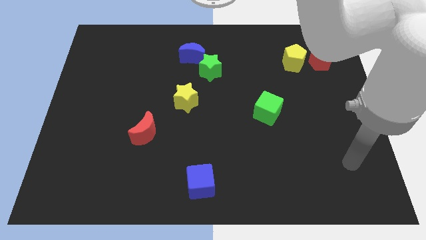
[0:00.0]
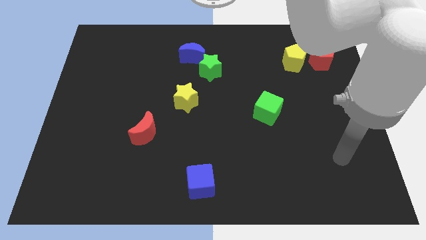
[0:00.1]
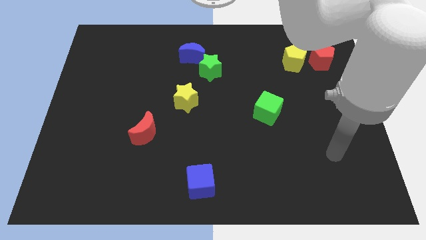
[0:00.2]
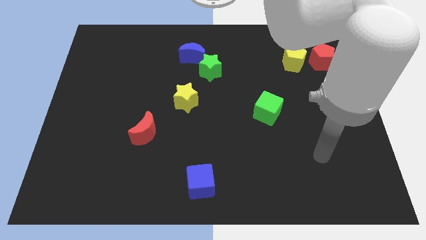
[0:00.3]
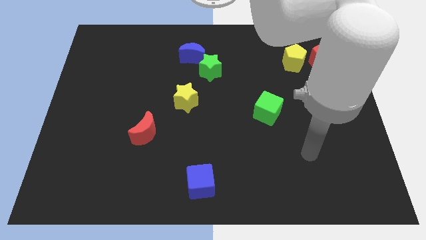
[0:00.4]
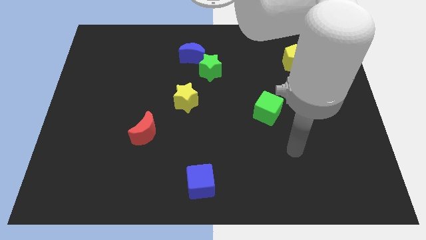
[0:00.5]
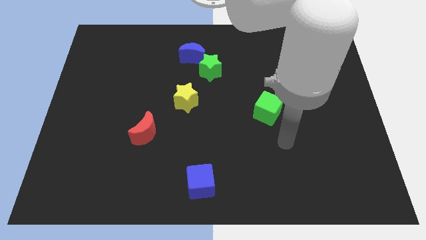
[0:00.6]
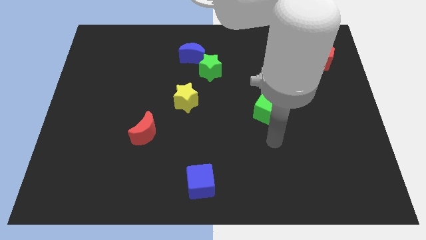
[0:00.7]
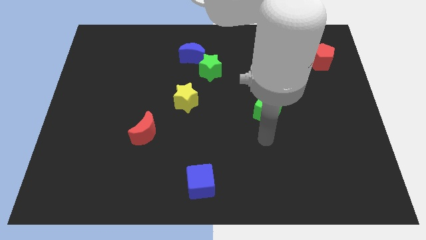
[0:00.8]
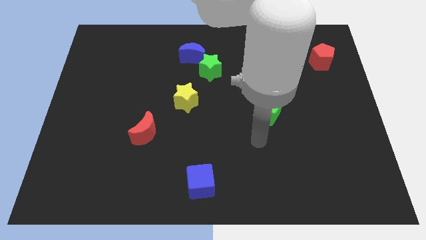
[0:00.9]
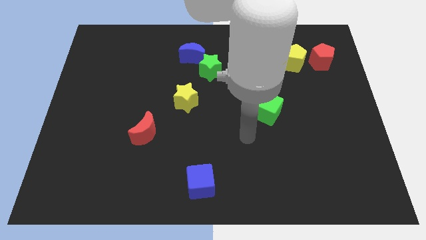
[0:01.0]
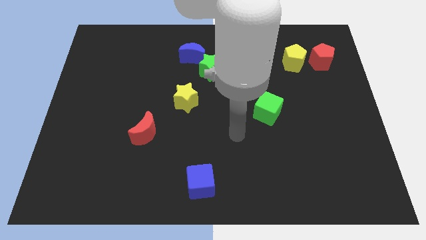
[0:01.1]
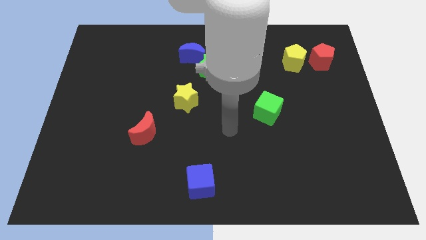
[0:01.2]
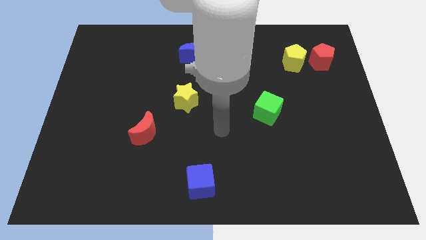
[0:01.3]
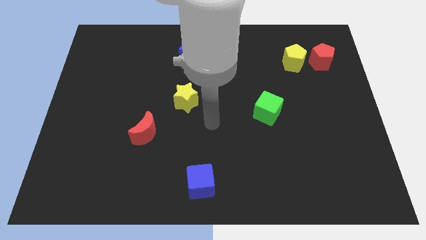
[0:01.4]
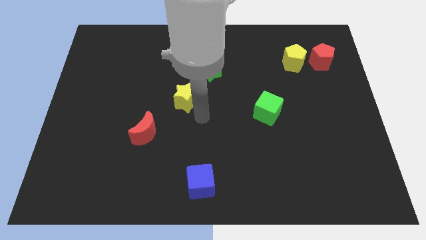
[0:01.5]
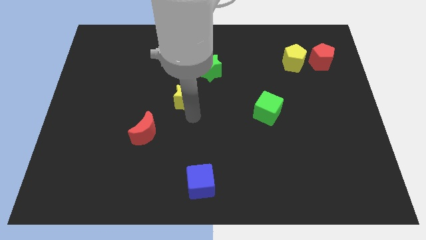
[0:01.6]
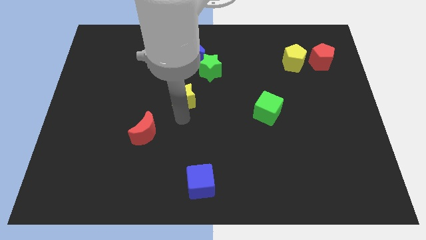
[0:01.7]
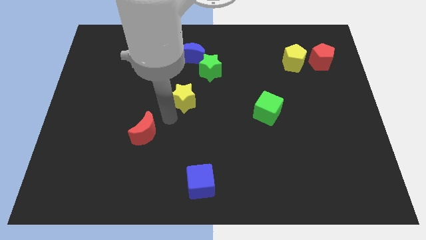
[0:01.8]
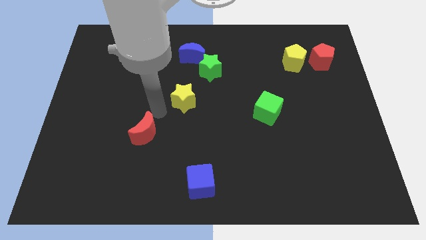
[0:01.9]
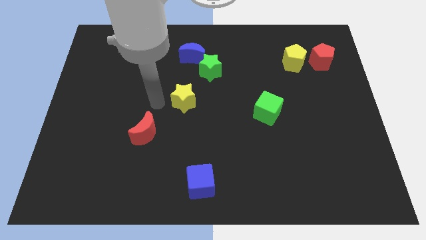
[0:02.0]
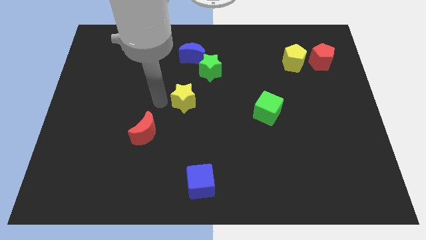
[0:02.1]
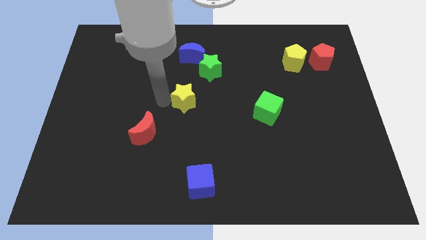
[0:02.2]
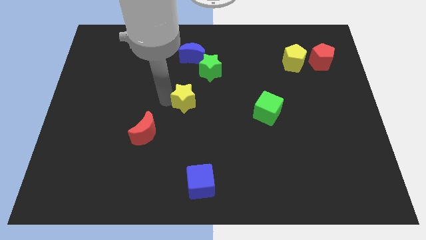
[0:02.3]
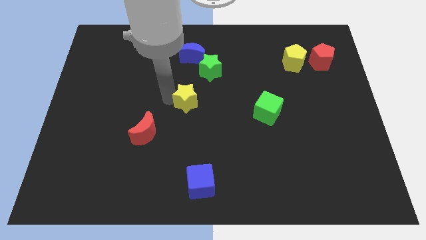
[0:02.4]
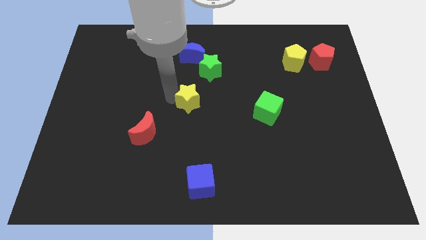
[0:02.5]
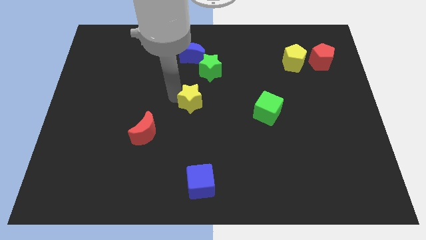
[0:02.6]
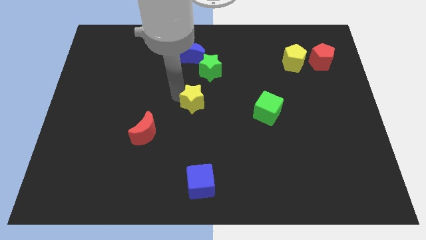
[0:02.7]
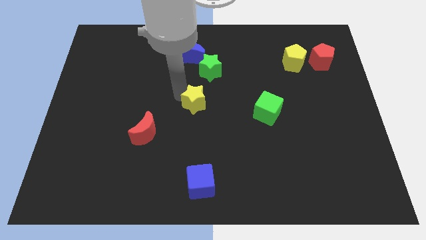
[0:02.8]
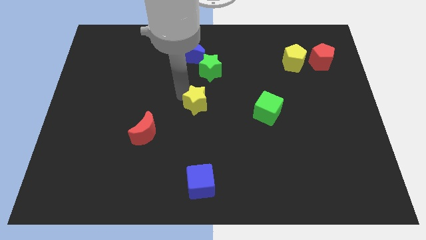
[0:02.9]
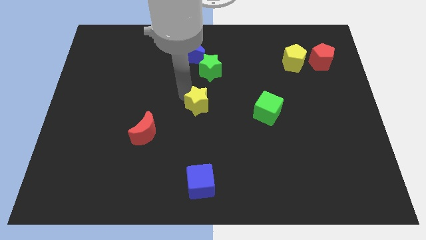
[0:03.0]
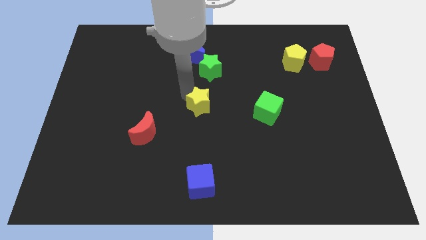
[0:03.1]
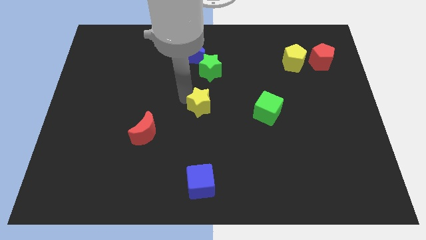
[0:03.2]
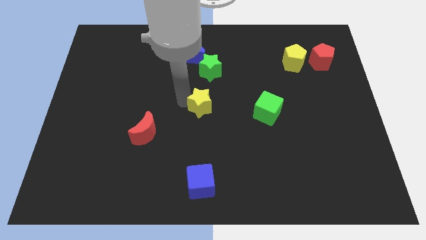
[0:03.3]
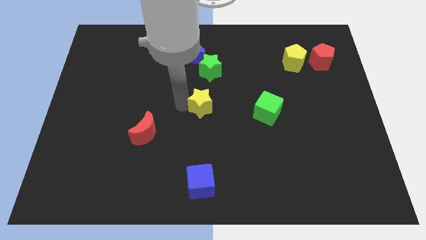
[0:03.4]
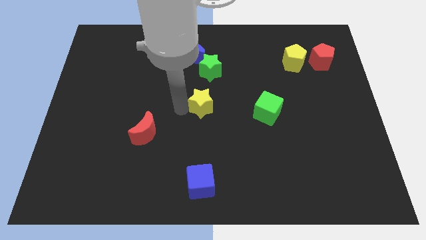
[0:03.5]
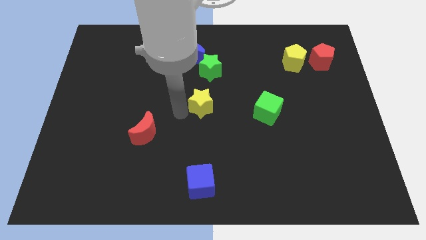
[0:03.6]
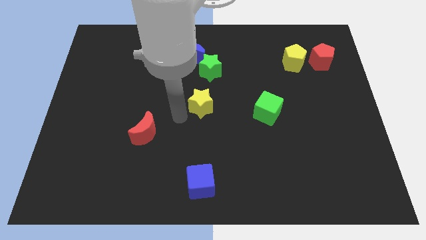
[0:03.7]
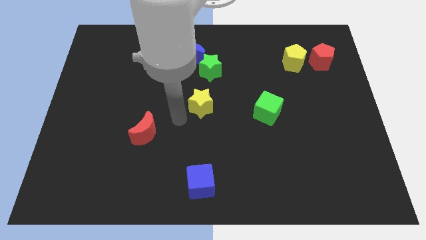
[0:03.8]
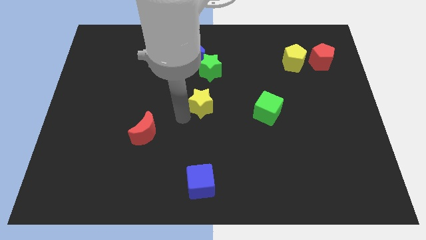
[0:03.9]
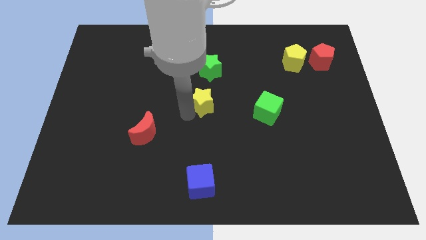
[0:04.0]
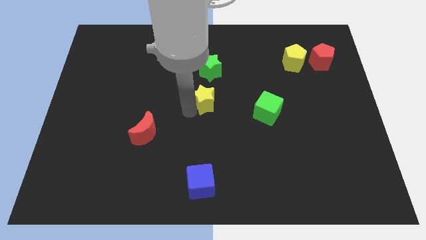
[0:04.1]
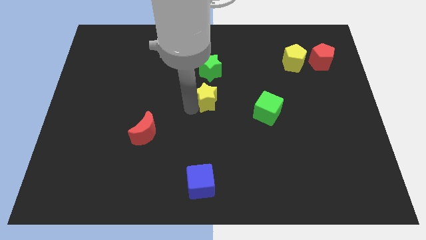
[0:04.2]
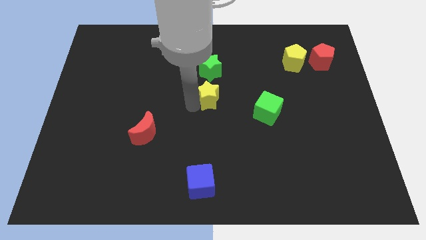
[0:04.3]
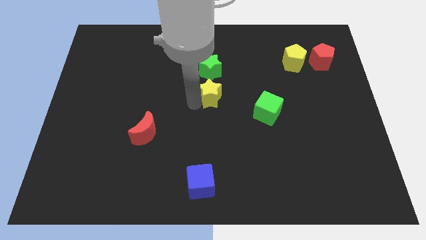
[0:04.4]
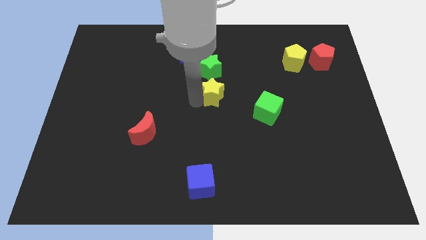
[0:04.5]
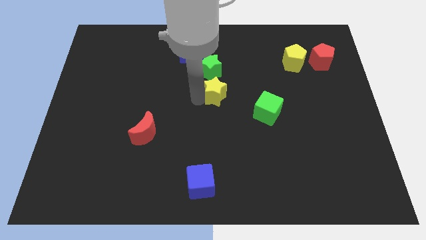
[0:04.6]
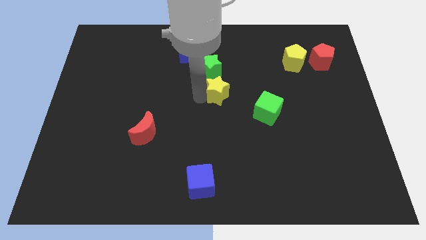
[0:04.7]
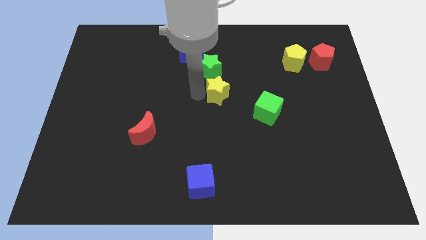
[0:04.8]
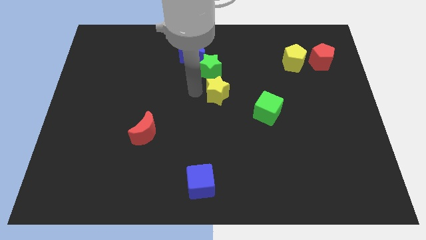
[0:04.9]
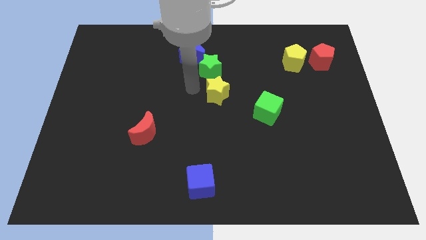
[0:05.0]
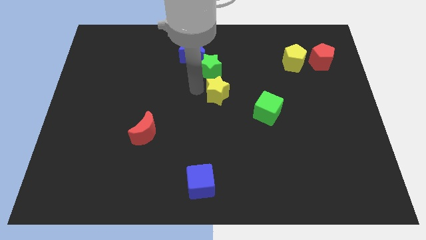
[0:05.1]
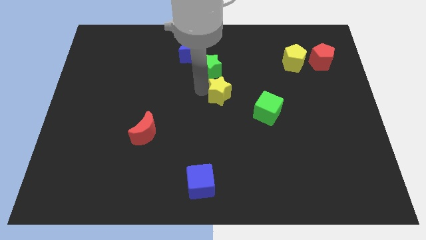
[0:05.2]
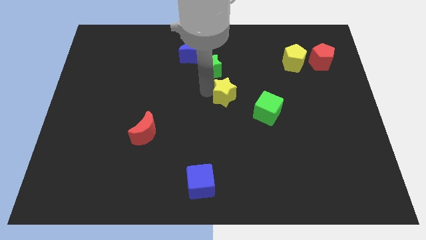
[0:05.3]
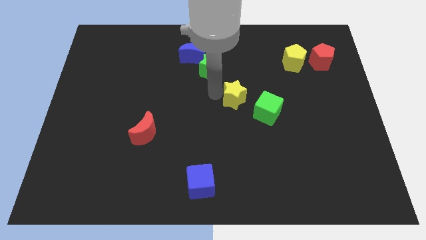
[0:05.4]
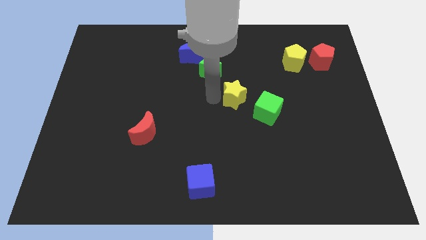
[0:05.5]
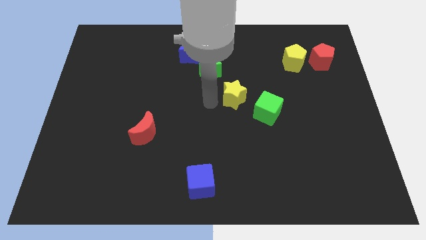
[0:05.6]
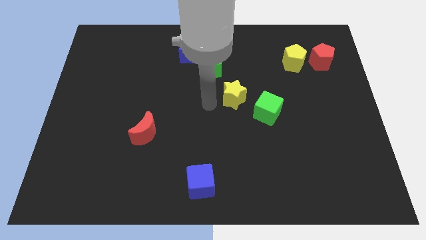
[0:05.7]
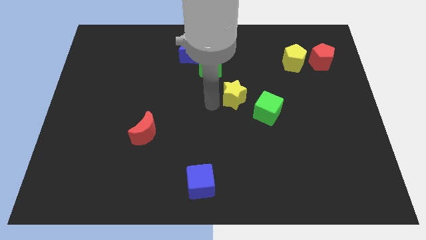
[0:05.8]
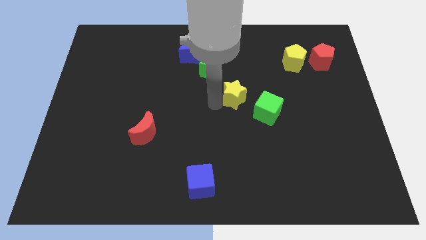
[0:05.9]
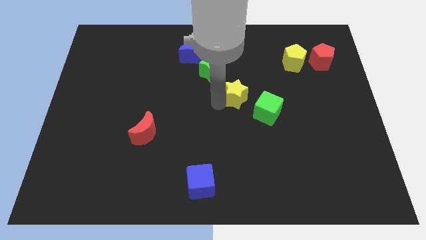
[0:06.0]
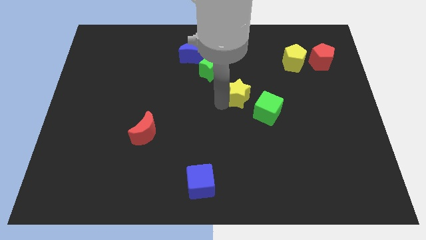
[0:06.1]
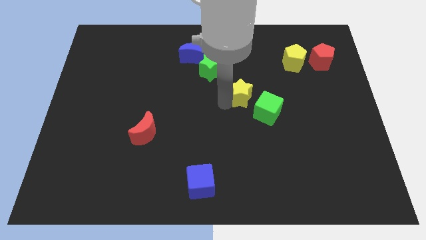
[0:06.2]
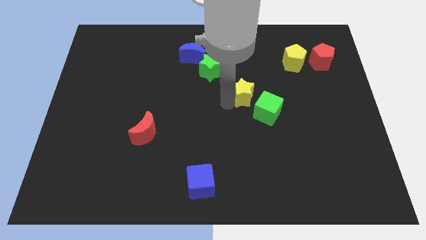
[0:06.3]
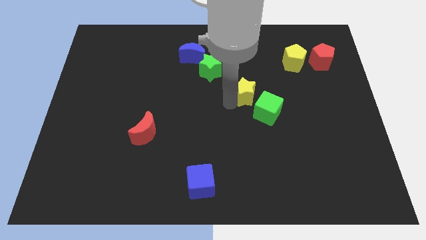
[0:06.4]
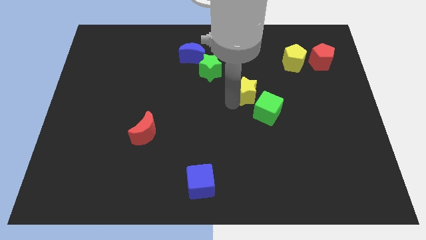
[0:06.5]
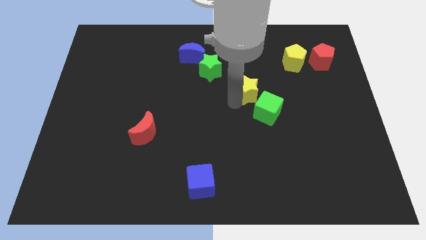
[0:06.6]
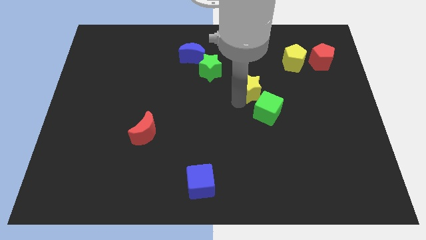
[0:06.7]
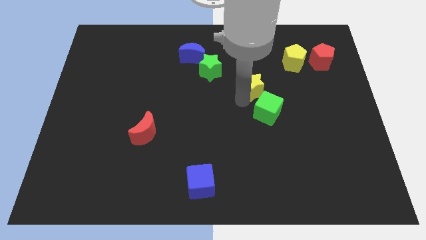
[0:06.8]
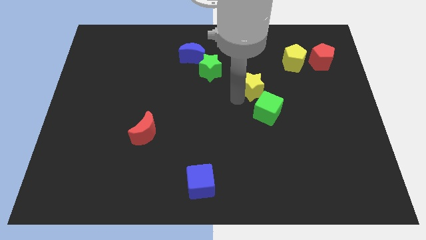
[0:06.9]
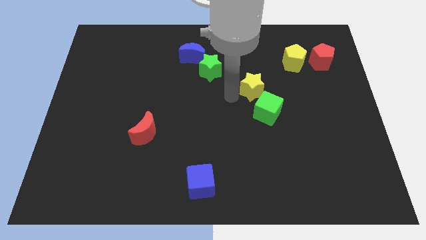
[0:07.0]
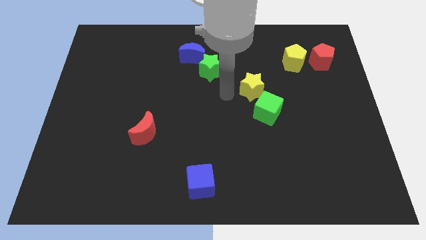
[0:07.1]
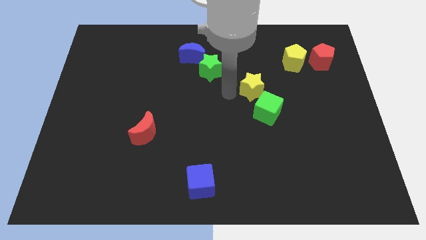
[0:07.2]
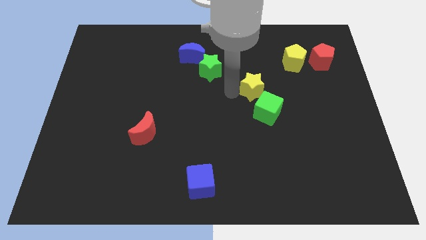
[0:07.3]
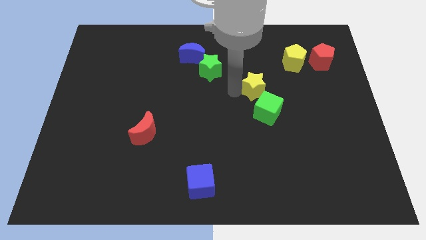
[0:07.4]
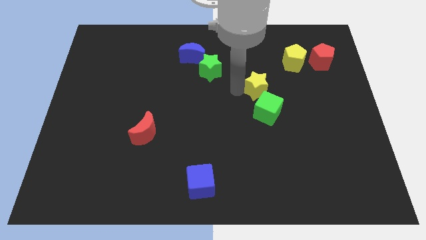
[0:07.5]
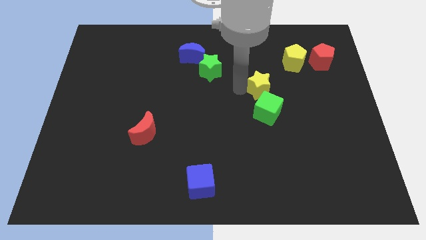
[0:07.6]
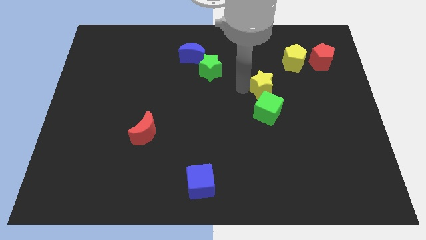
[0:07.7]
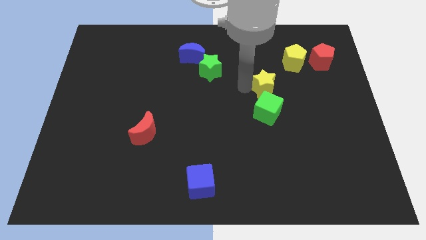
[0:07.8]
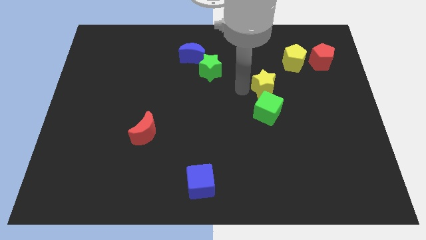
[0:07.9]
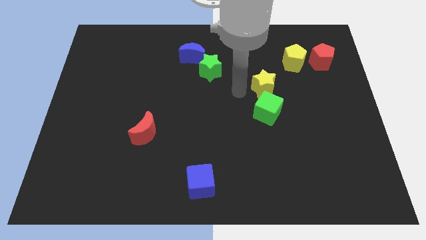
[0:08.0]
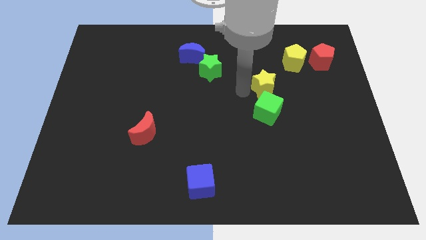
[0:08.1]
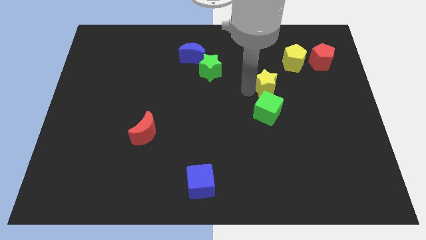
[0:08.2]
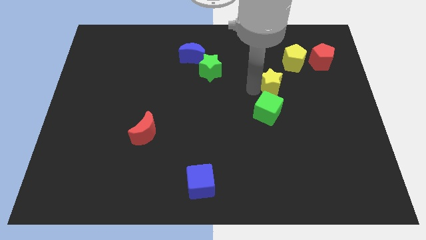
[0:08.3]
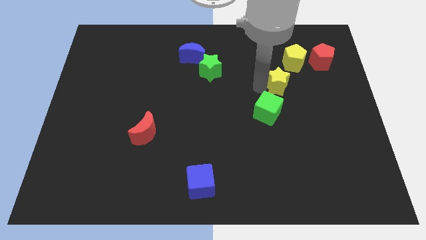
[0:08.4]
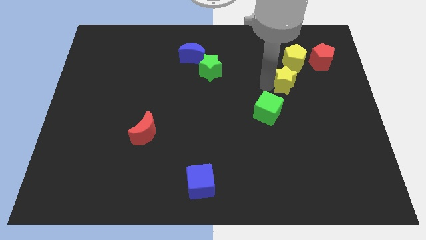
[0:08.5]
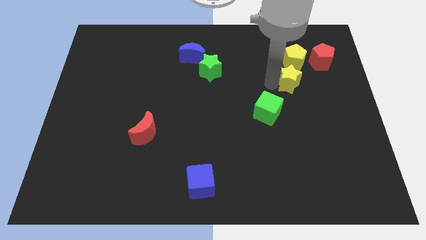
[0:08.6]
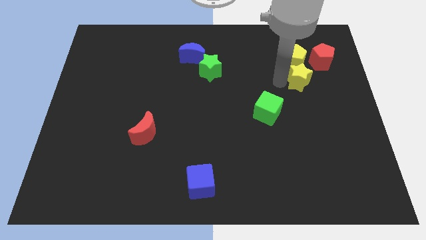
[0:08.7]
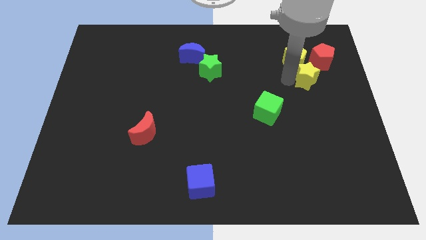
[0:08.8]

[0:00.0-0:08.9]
push the yellow star to the bottom of the red pentagon
